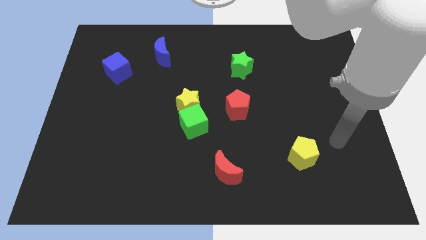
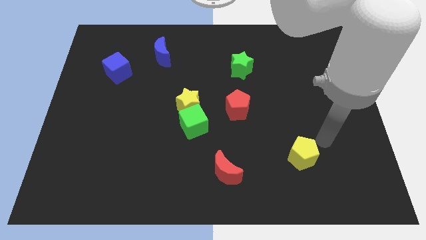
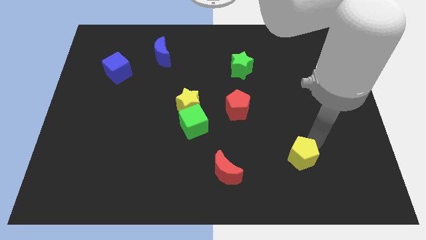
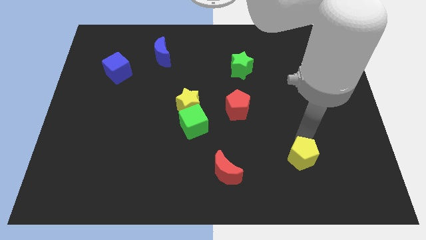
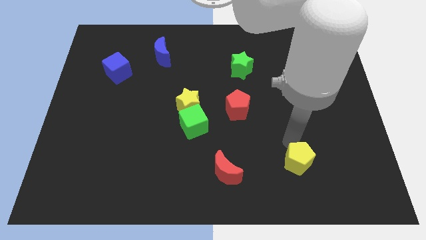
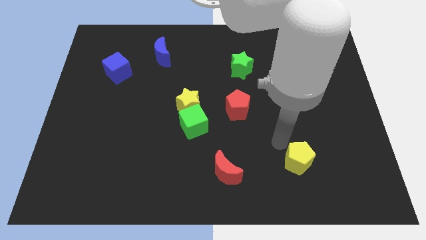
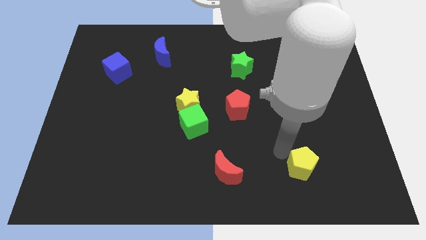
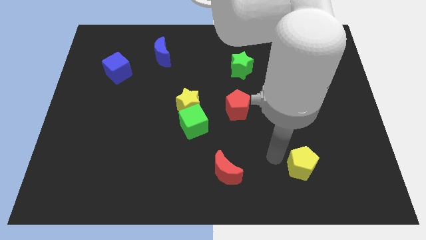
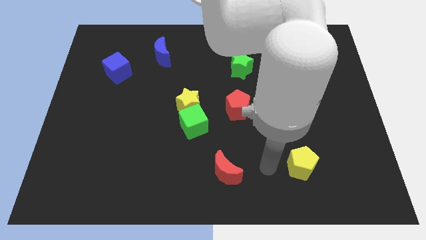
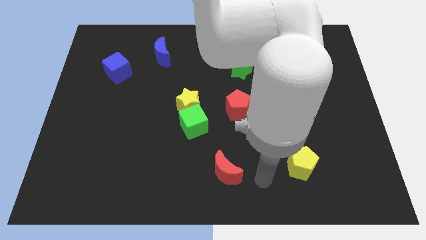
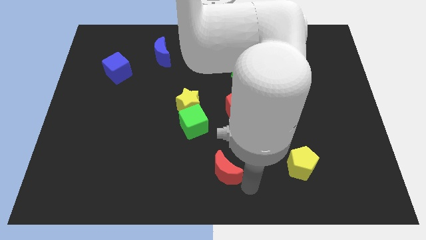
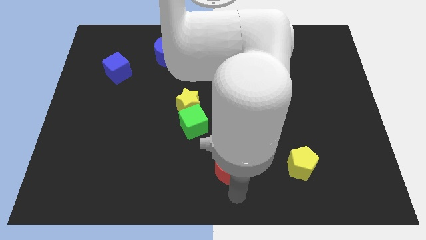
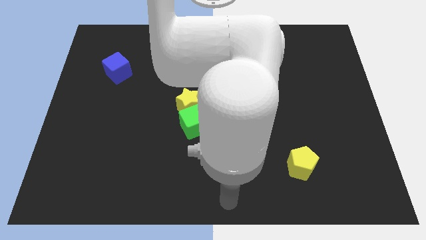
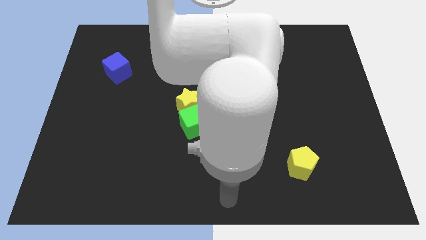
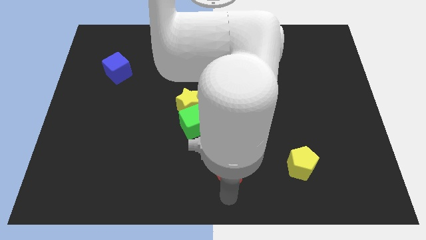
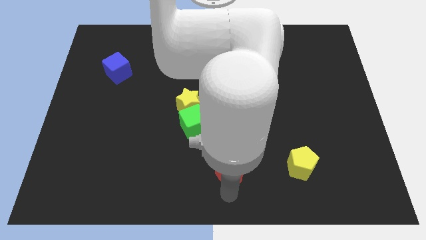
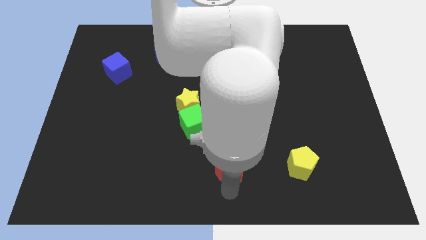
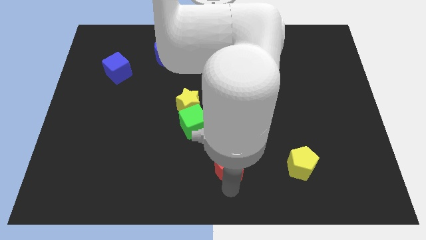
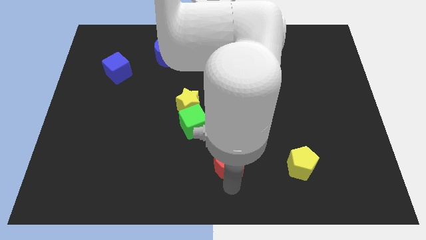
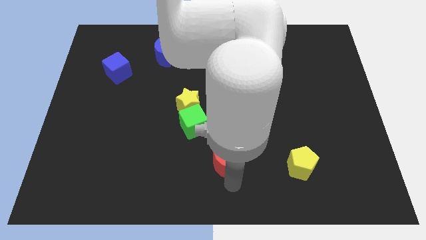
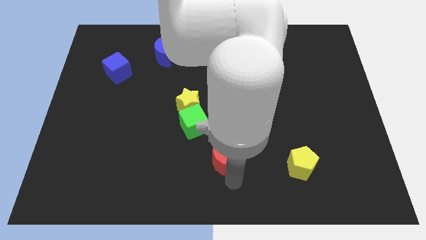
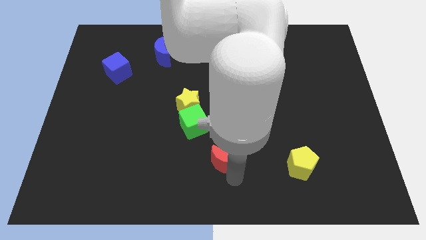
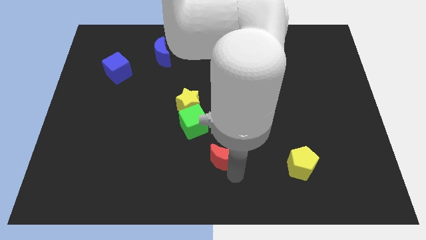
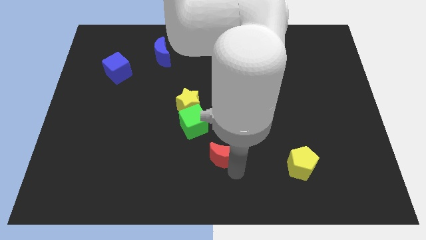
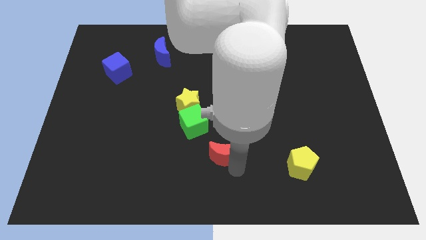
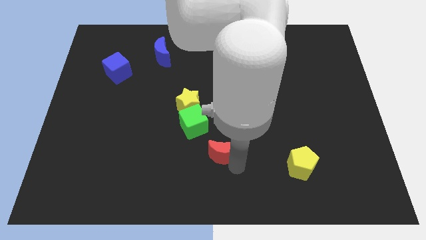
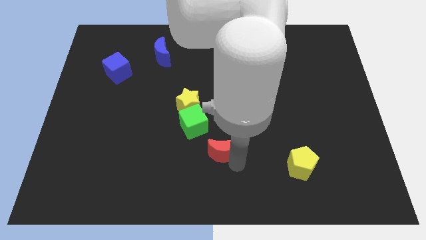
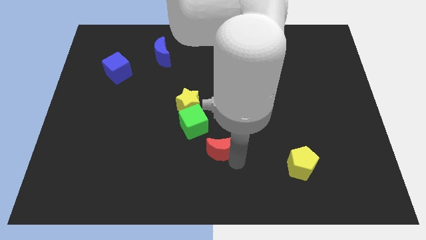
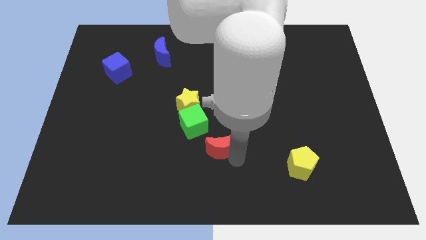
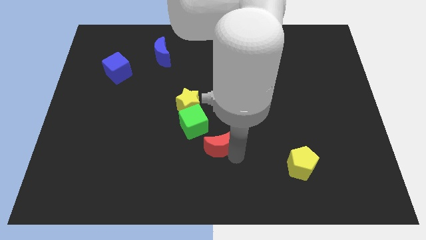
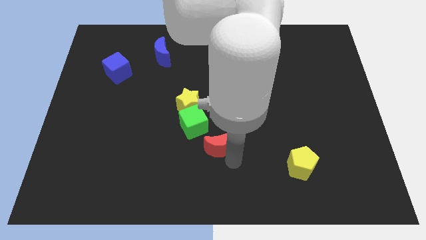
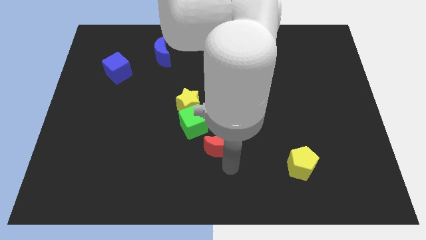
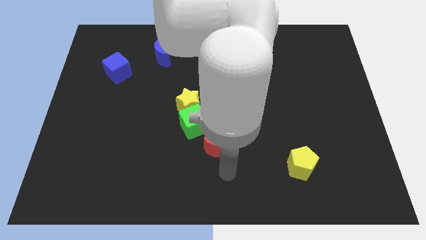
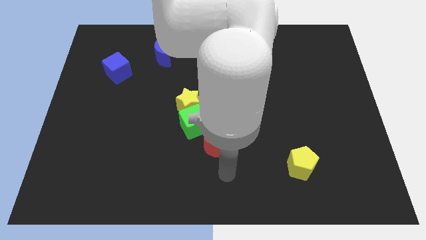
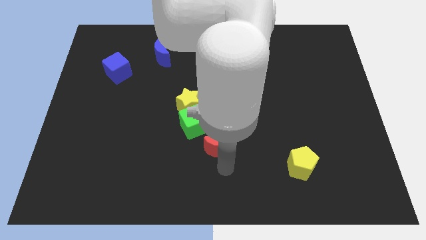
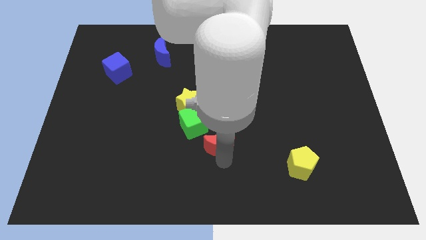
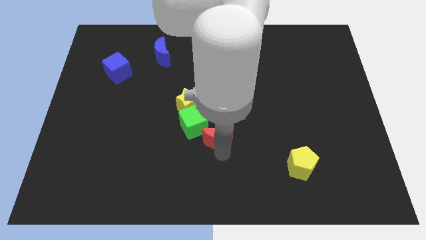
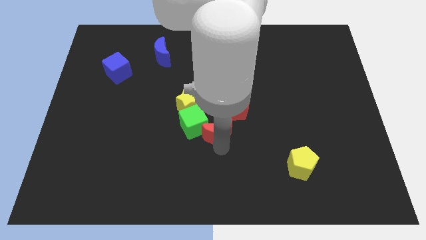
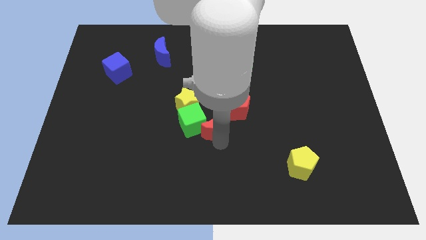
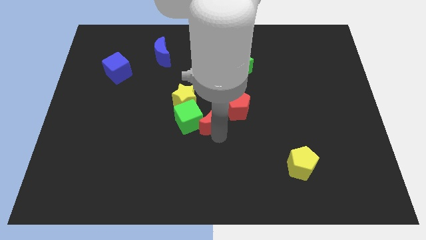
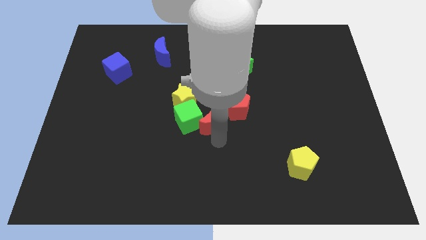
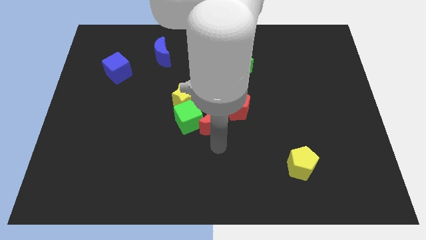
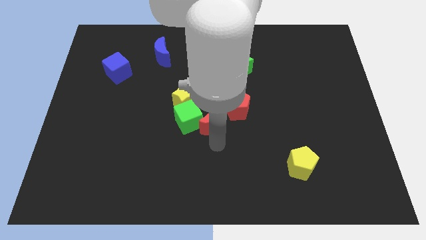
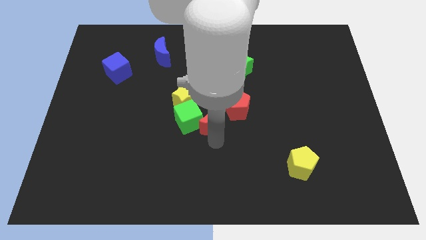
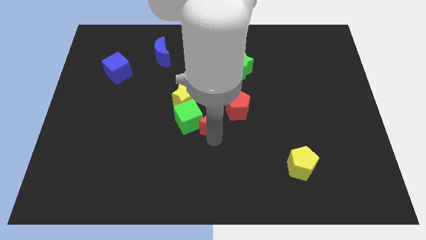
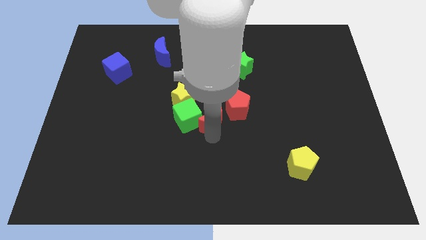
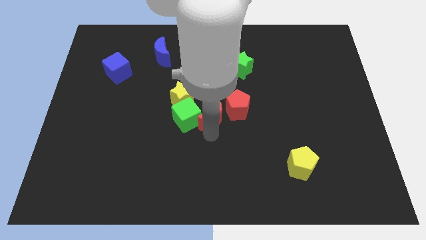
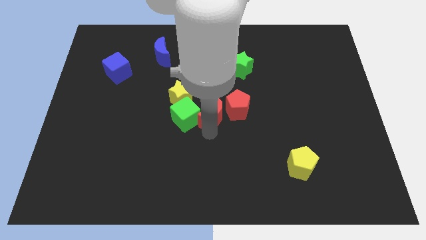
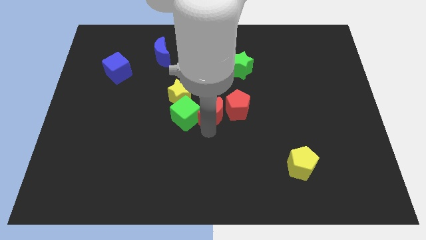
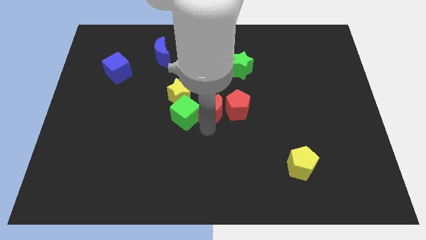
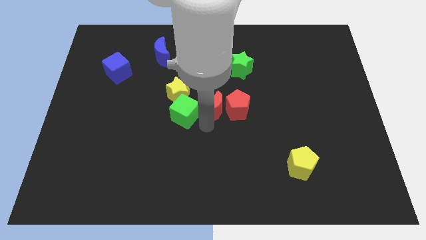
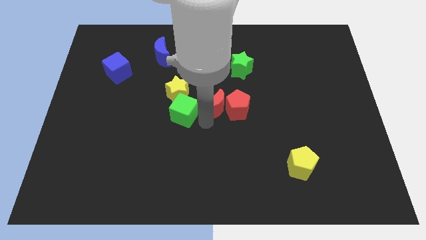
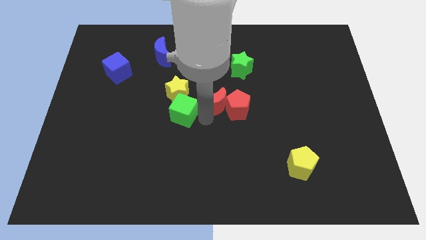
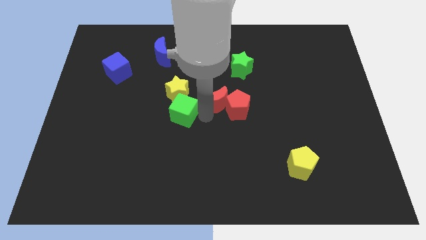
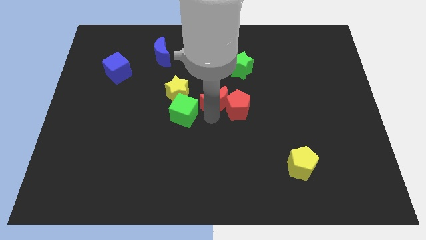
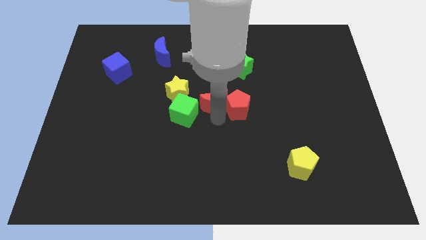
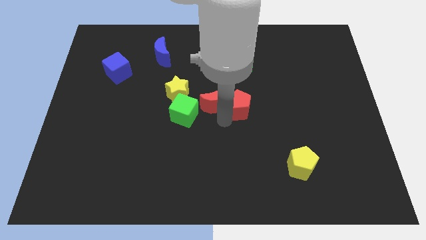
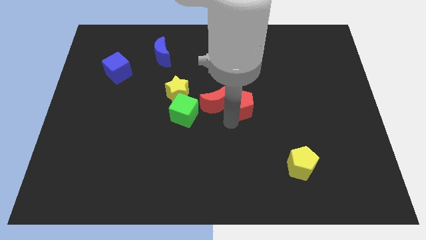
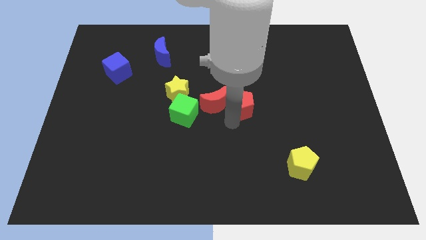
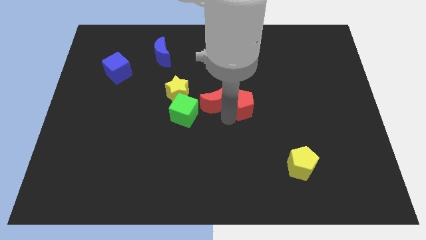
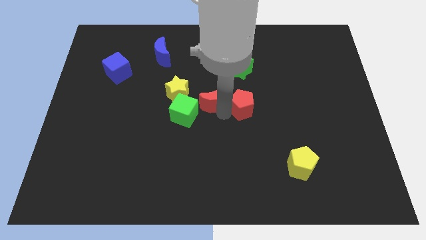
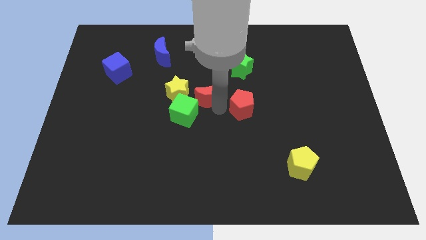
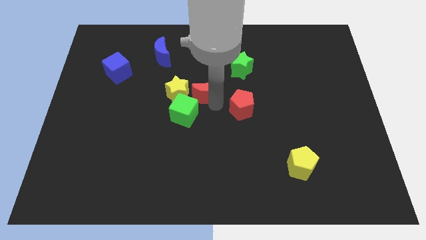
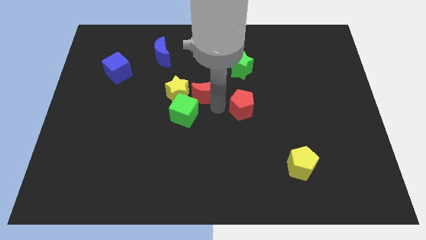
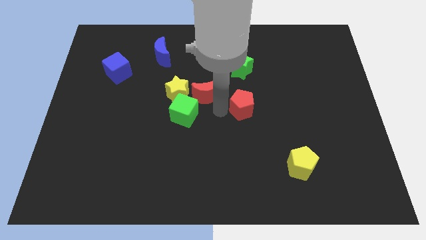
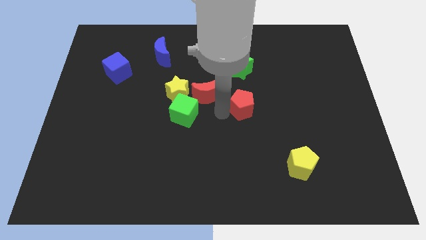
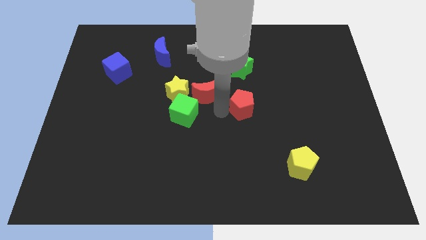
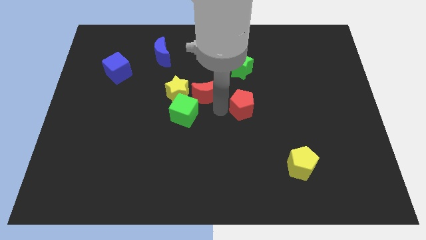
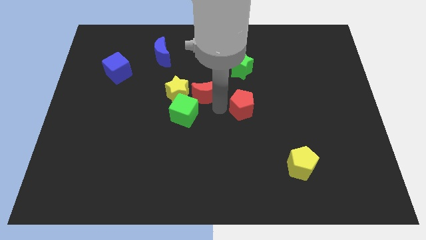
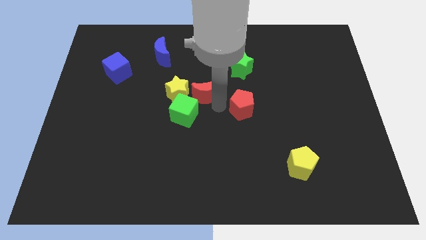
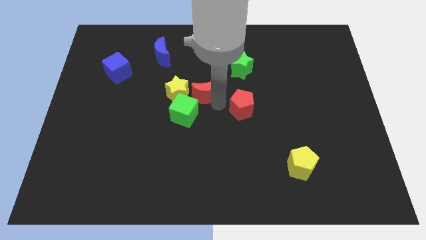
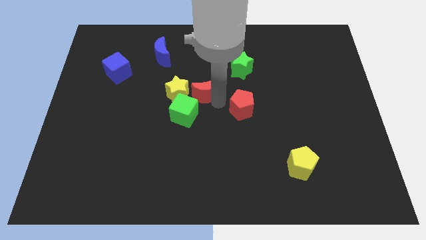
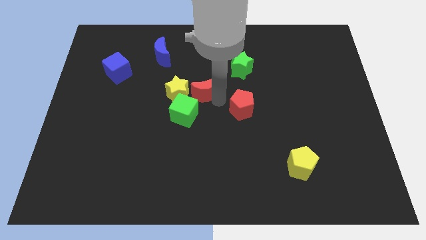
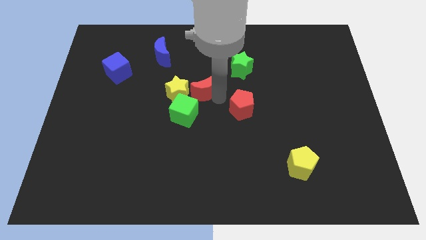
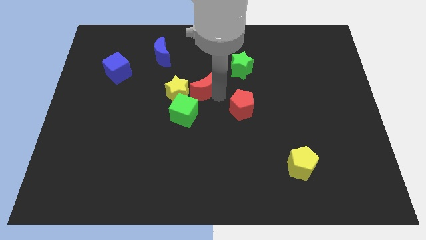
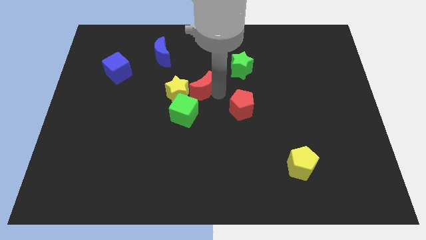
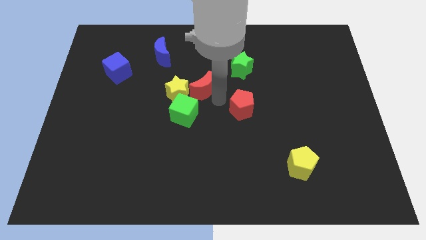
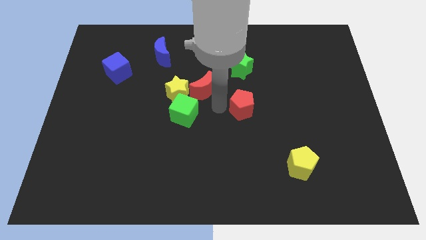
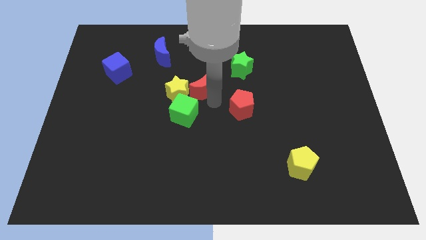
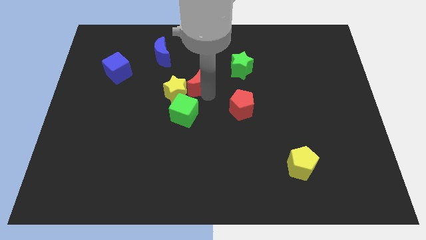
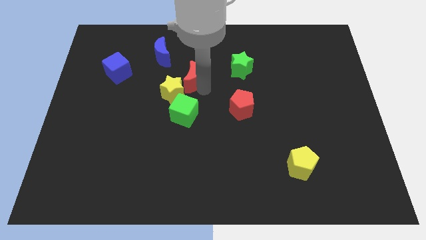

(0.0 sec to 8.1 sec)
slide the red moon to the top side of the yellow star
